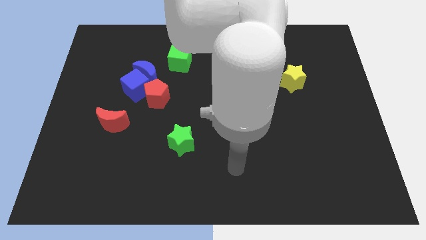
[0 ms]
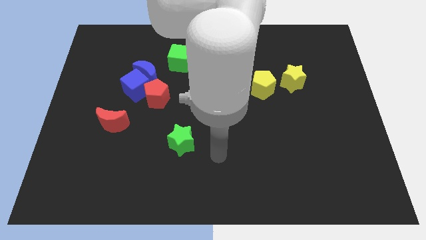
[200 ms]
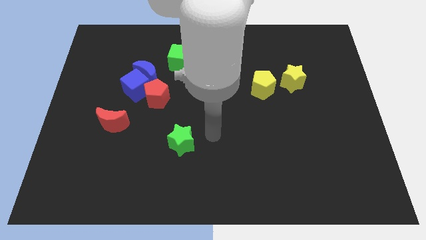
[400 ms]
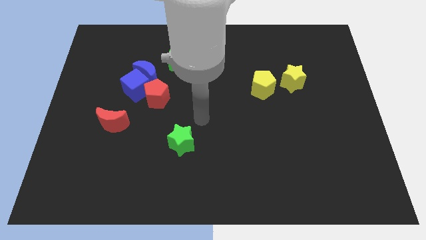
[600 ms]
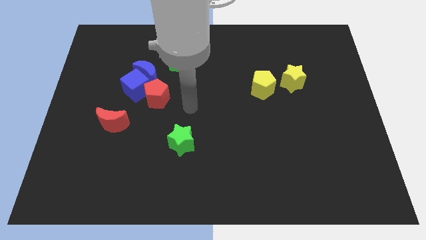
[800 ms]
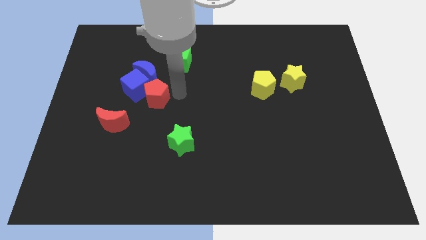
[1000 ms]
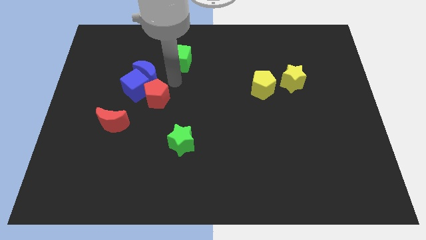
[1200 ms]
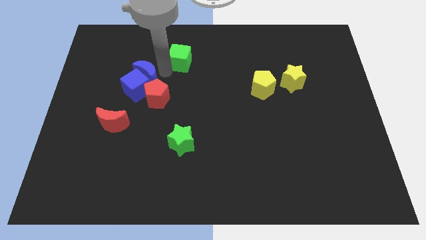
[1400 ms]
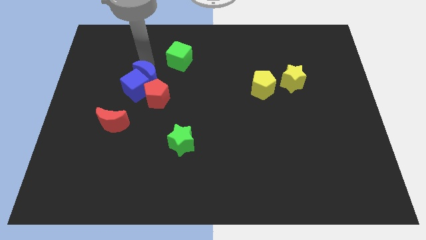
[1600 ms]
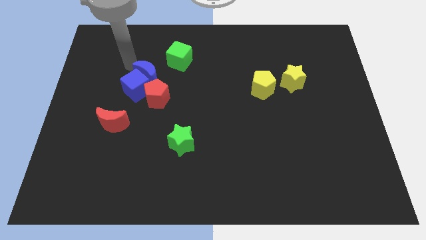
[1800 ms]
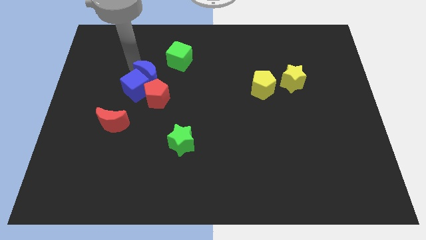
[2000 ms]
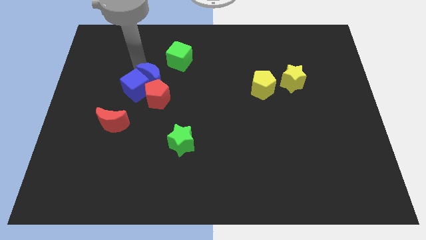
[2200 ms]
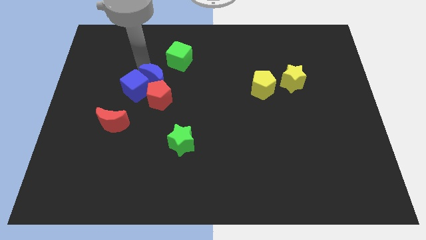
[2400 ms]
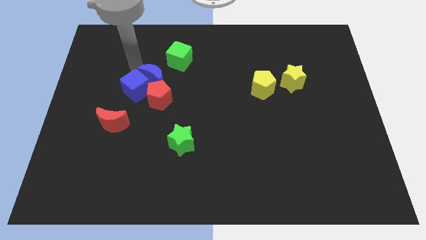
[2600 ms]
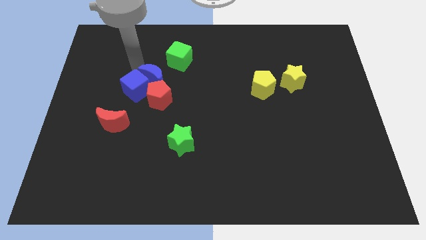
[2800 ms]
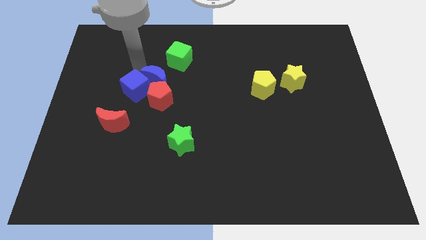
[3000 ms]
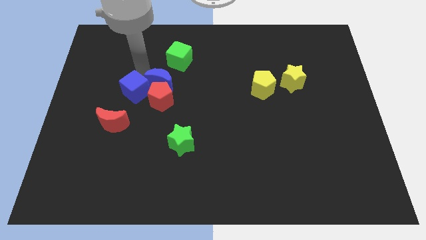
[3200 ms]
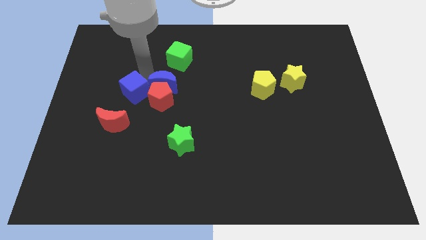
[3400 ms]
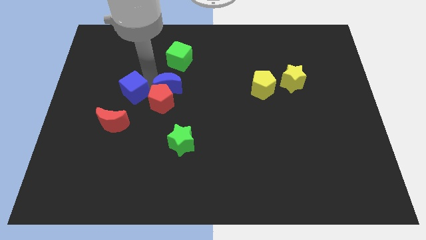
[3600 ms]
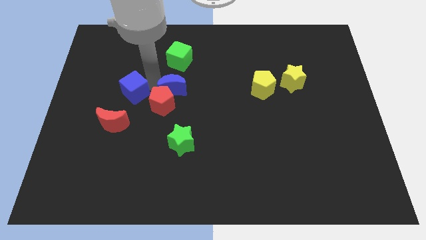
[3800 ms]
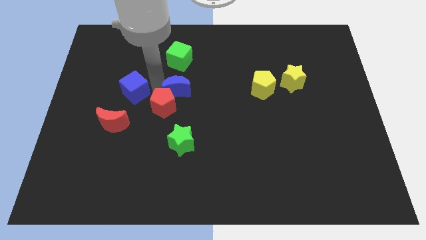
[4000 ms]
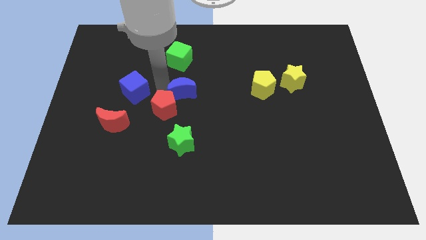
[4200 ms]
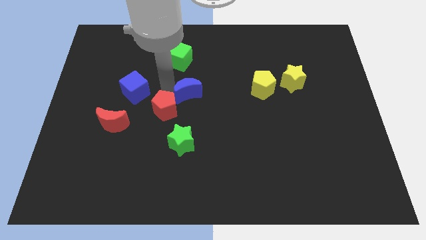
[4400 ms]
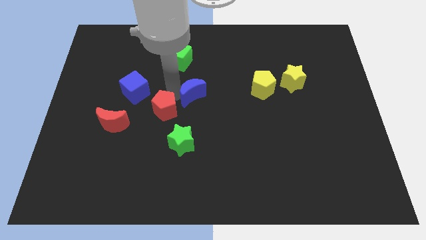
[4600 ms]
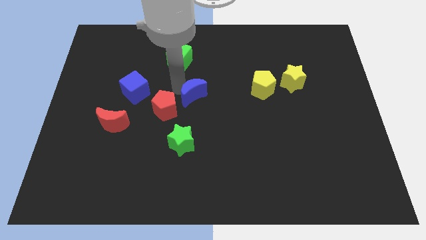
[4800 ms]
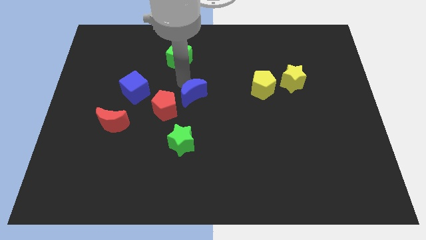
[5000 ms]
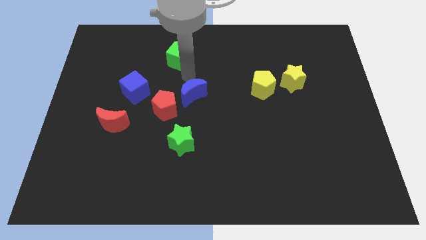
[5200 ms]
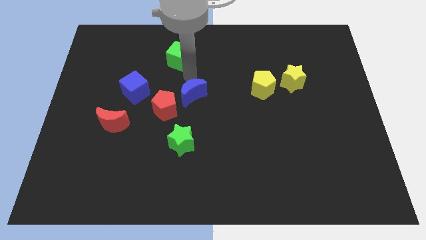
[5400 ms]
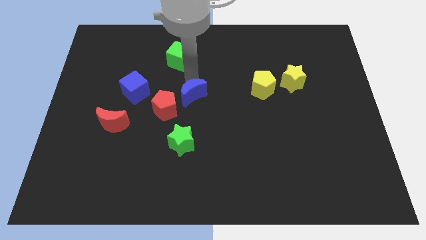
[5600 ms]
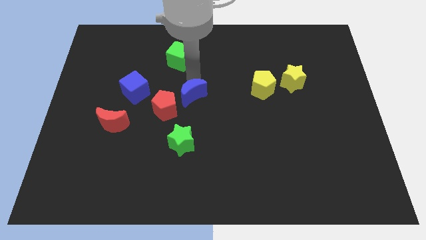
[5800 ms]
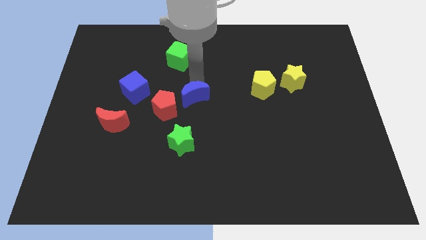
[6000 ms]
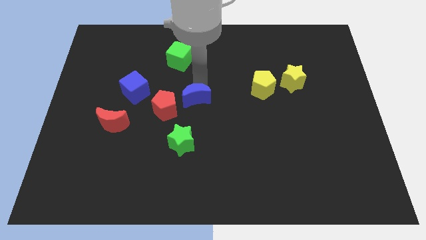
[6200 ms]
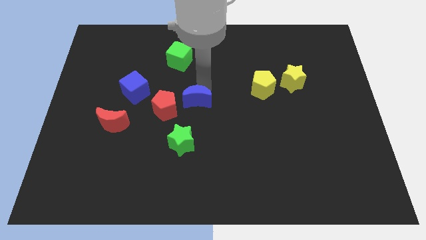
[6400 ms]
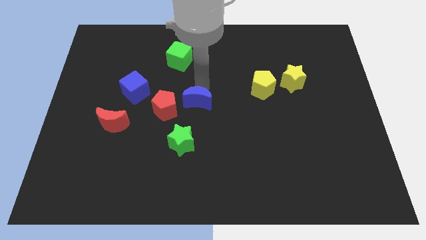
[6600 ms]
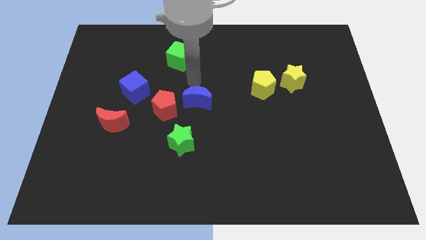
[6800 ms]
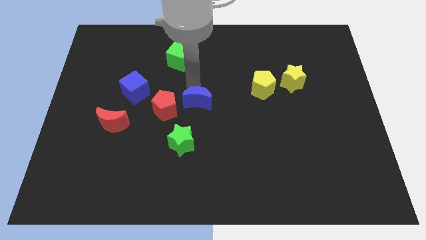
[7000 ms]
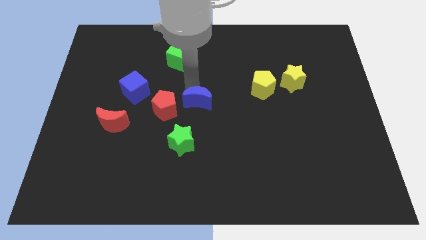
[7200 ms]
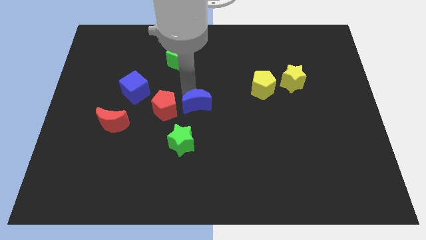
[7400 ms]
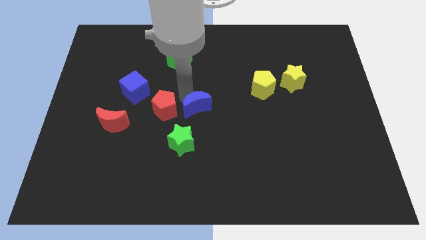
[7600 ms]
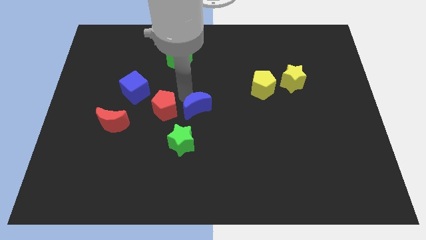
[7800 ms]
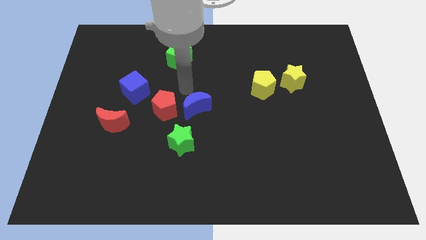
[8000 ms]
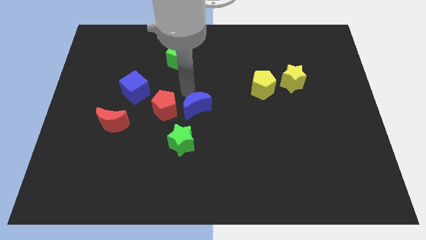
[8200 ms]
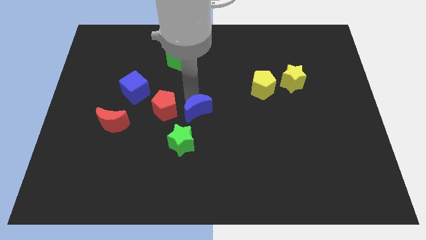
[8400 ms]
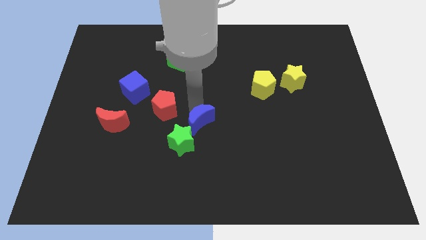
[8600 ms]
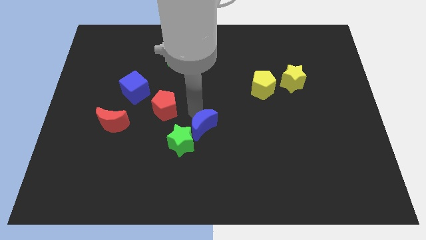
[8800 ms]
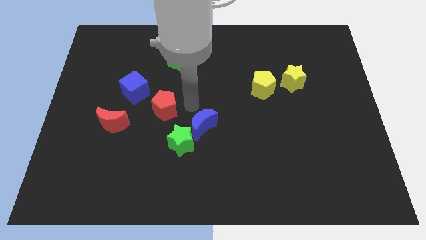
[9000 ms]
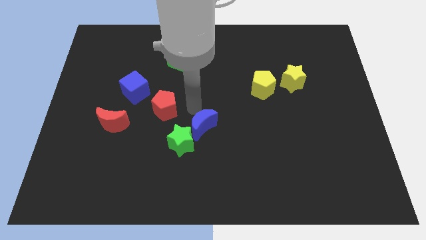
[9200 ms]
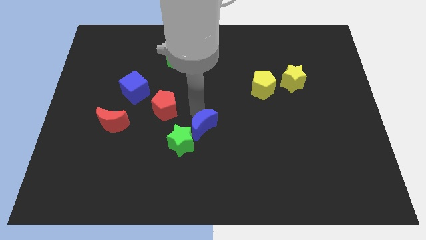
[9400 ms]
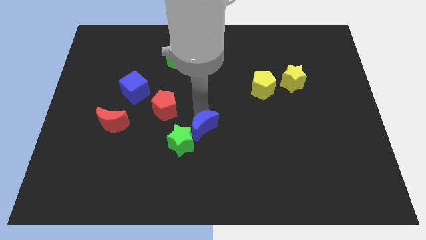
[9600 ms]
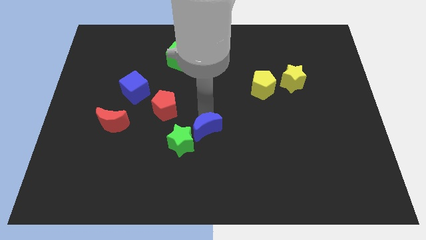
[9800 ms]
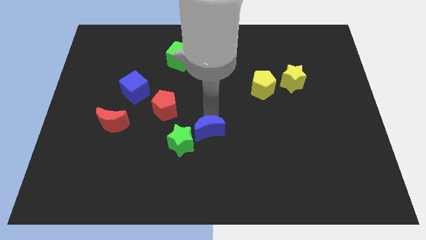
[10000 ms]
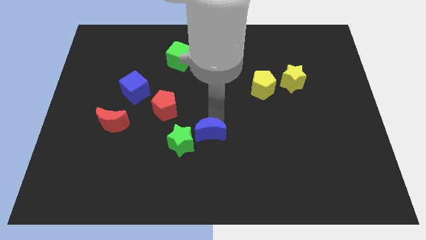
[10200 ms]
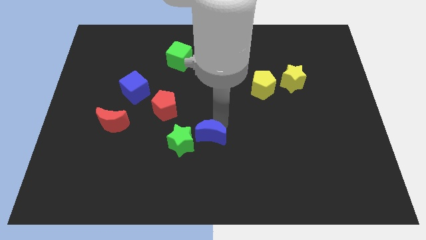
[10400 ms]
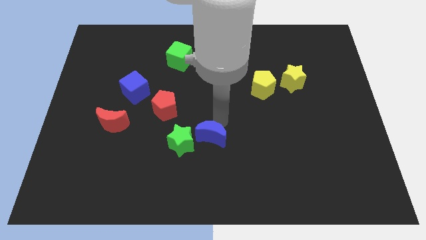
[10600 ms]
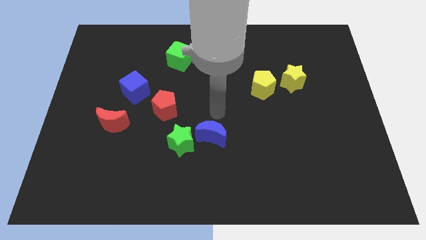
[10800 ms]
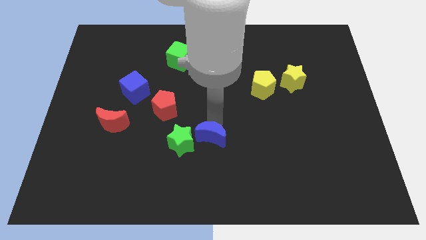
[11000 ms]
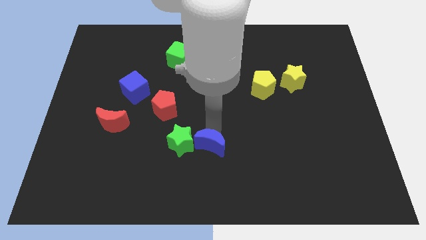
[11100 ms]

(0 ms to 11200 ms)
slide the blue moon to the bottom right side of the green star

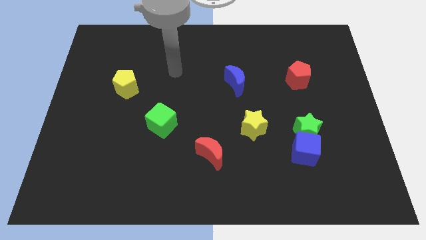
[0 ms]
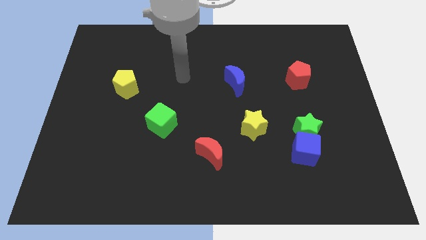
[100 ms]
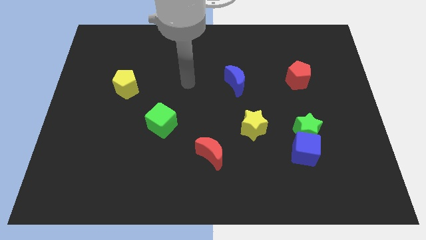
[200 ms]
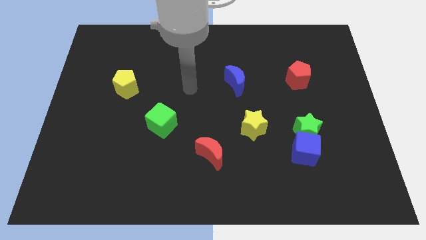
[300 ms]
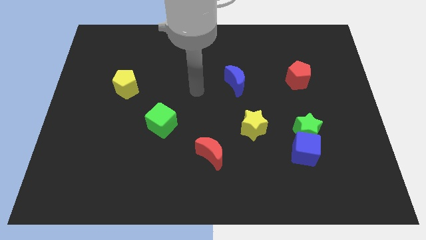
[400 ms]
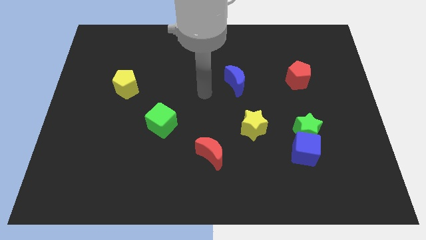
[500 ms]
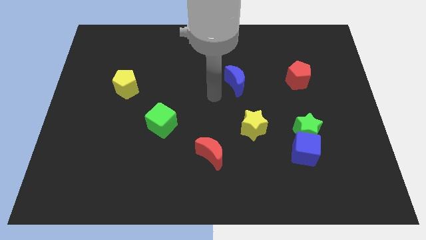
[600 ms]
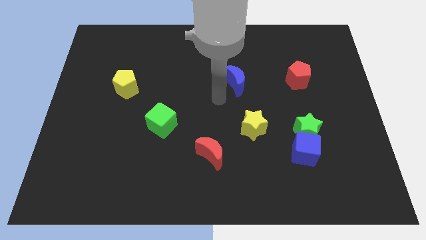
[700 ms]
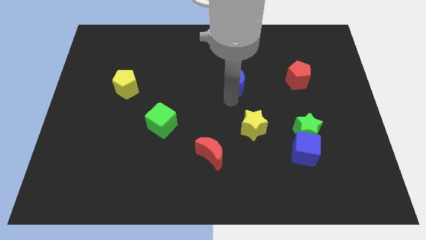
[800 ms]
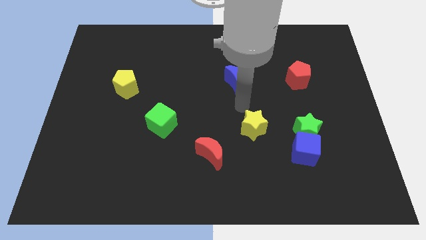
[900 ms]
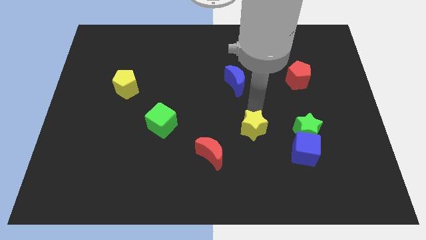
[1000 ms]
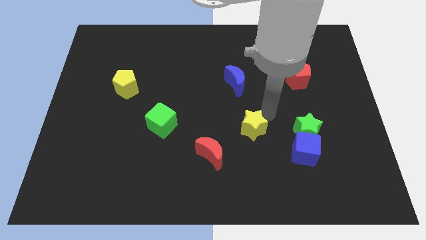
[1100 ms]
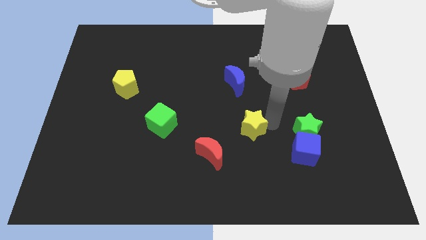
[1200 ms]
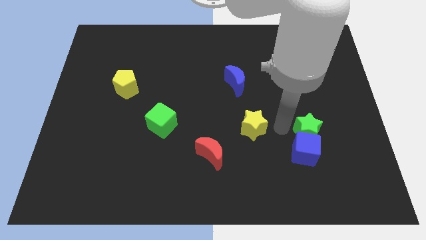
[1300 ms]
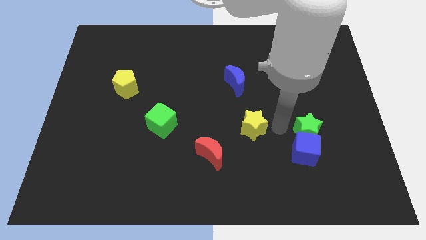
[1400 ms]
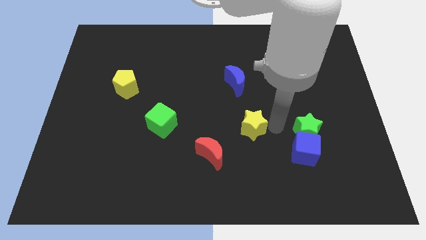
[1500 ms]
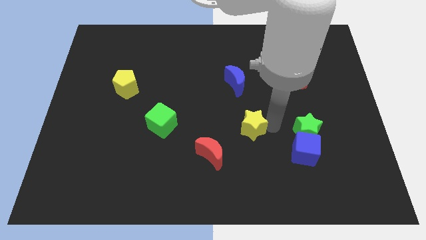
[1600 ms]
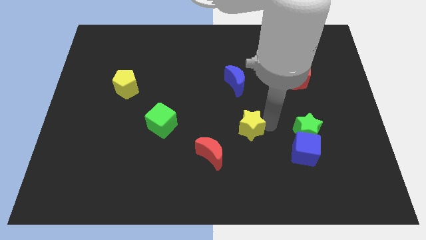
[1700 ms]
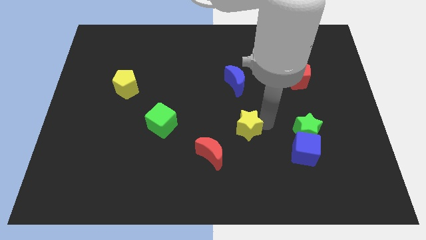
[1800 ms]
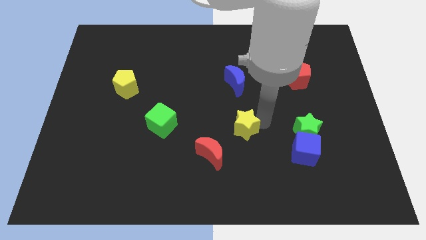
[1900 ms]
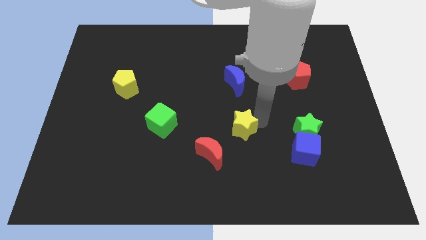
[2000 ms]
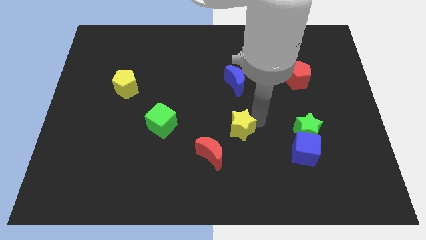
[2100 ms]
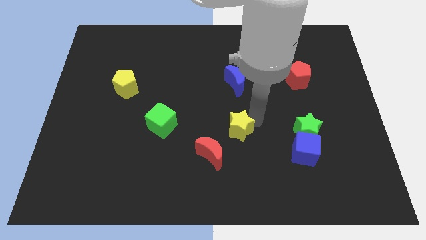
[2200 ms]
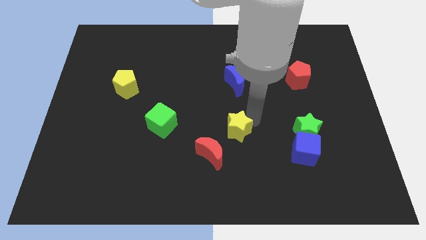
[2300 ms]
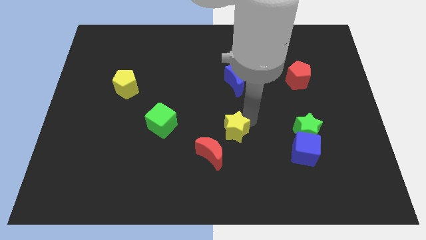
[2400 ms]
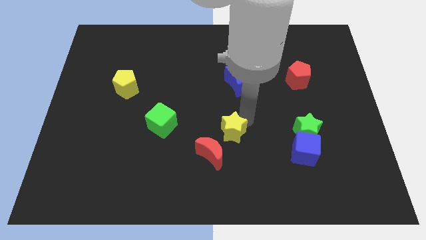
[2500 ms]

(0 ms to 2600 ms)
slide the yellow star to the right of the green cube
